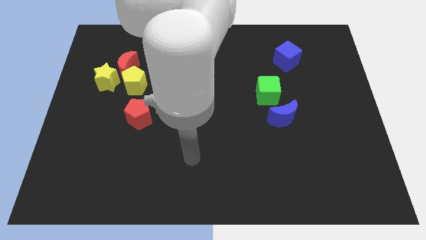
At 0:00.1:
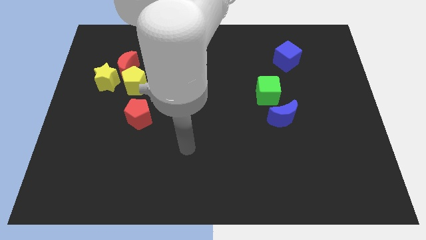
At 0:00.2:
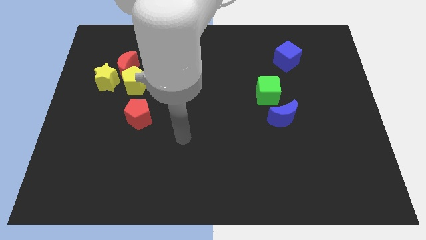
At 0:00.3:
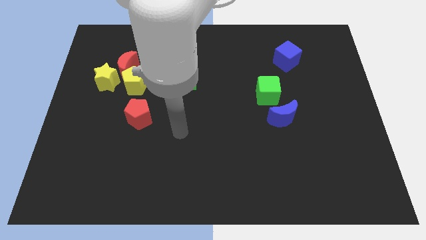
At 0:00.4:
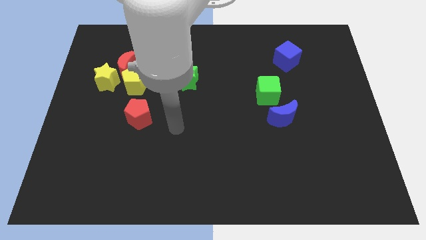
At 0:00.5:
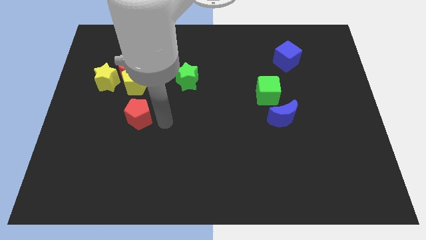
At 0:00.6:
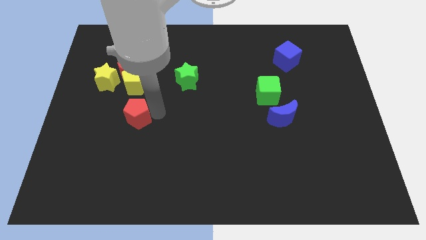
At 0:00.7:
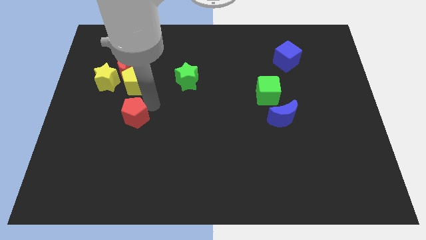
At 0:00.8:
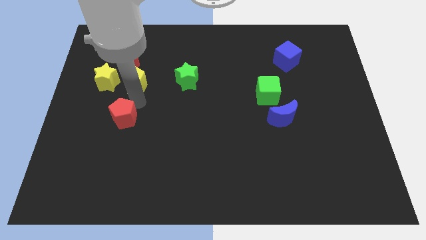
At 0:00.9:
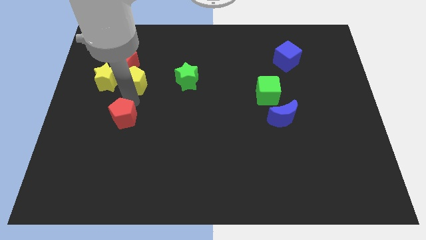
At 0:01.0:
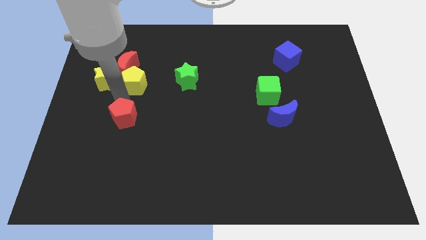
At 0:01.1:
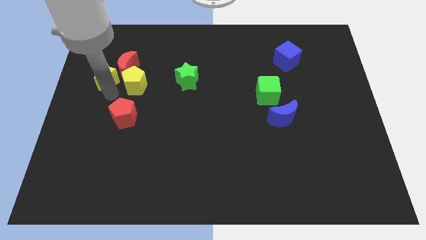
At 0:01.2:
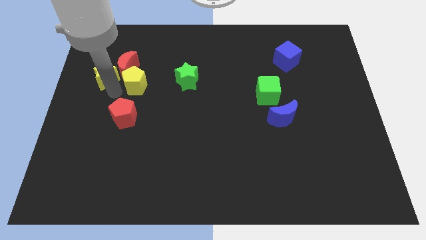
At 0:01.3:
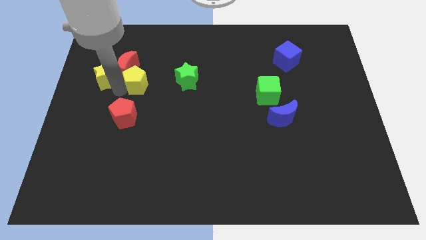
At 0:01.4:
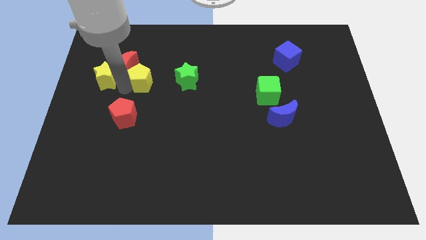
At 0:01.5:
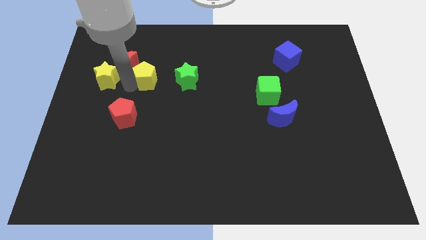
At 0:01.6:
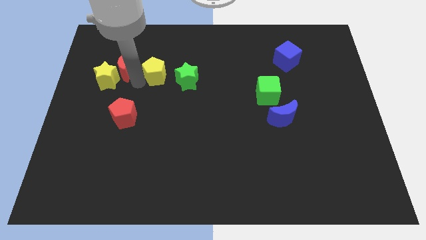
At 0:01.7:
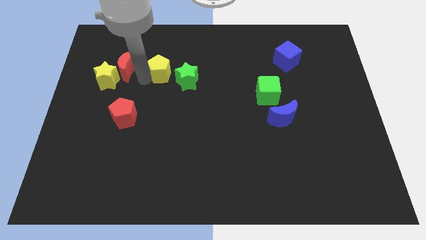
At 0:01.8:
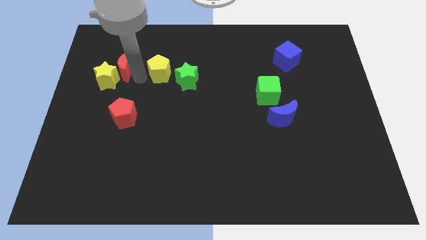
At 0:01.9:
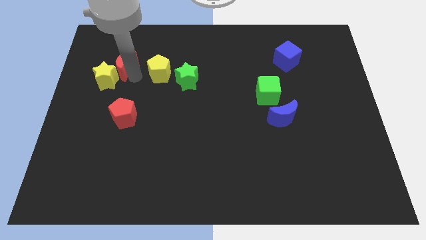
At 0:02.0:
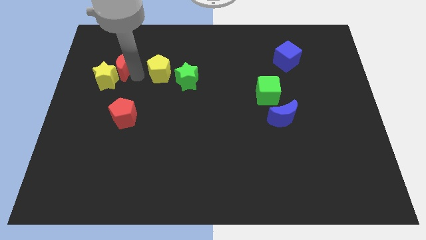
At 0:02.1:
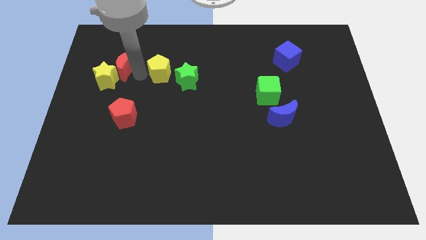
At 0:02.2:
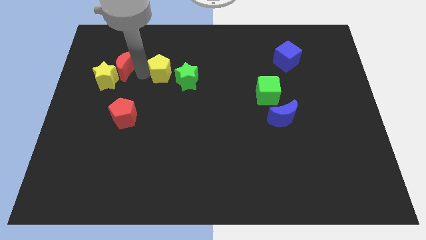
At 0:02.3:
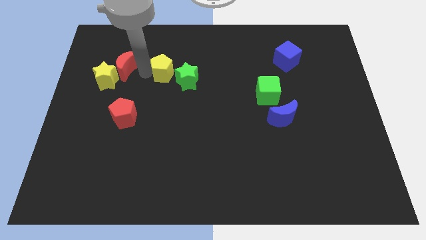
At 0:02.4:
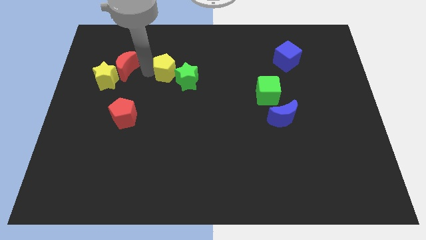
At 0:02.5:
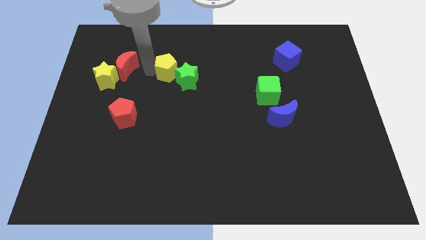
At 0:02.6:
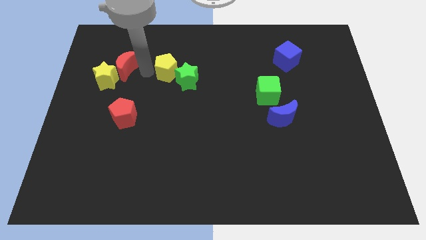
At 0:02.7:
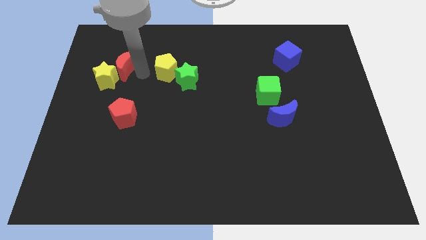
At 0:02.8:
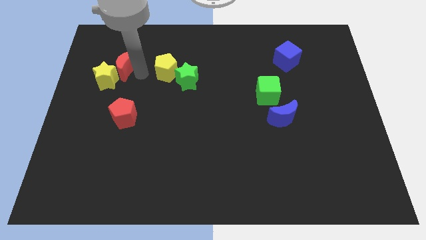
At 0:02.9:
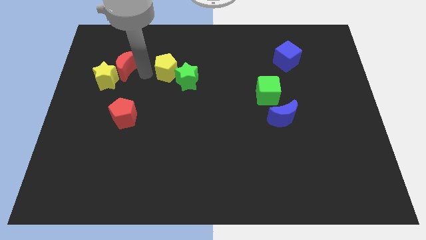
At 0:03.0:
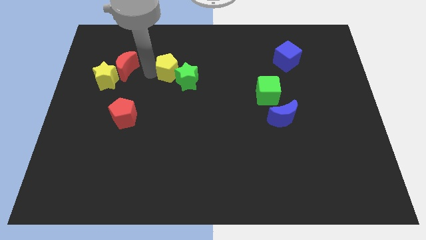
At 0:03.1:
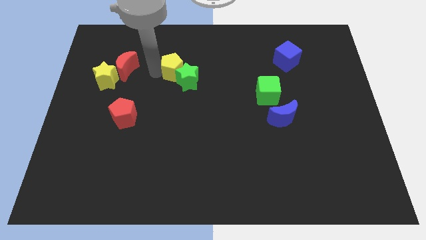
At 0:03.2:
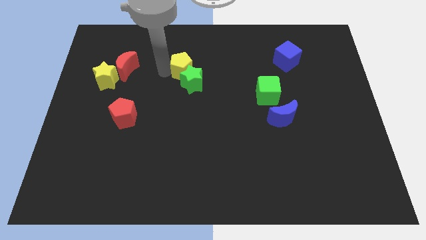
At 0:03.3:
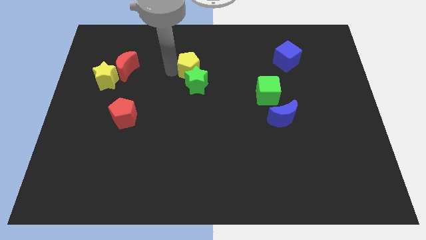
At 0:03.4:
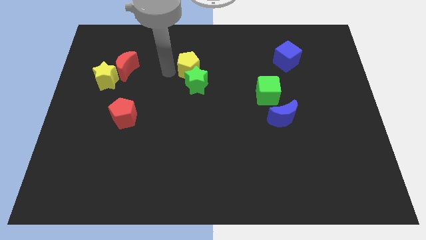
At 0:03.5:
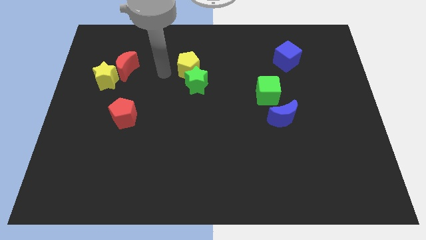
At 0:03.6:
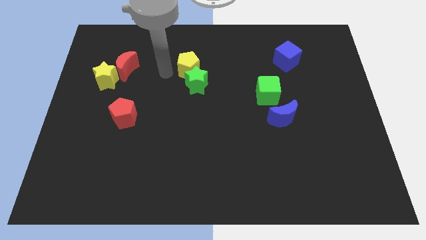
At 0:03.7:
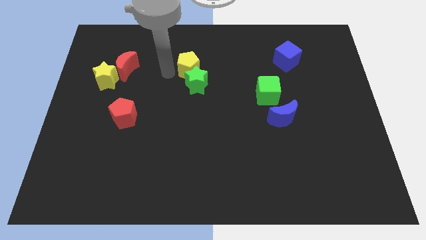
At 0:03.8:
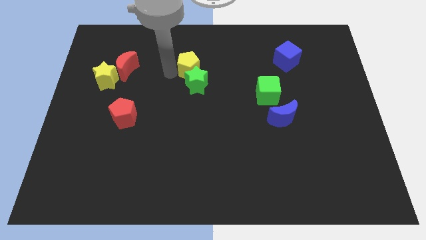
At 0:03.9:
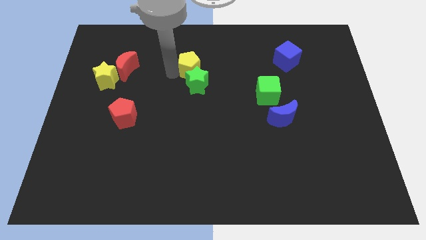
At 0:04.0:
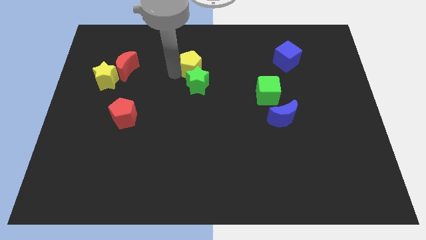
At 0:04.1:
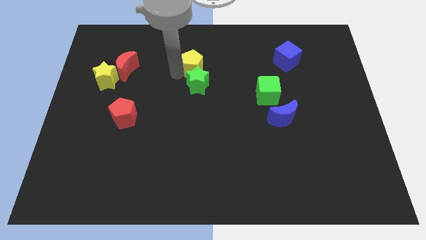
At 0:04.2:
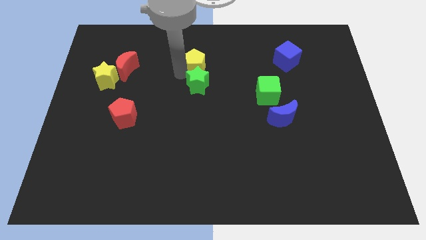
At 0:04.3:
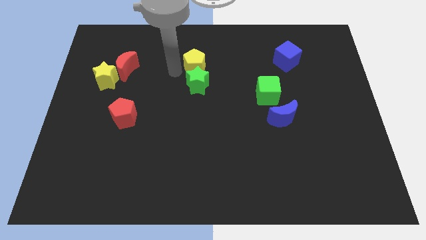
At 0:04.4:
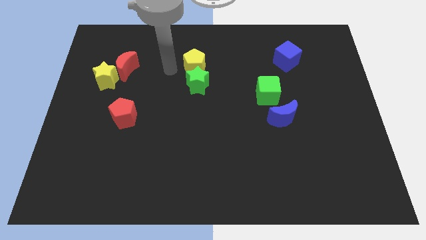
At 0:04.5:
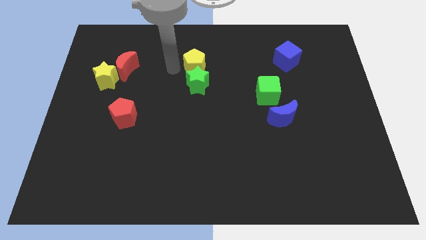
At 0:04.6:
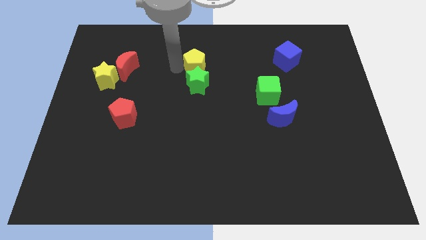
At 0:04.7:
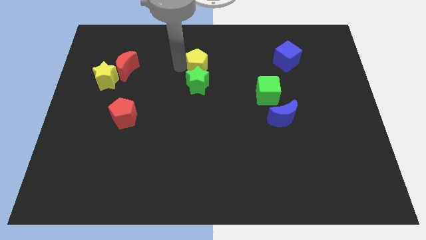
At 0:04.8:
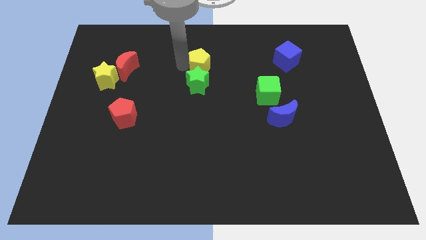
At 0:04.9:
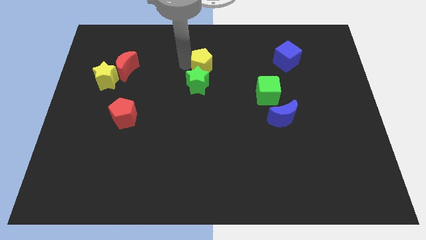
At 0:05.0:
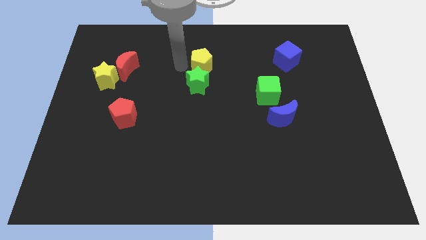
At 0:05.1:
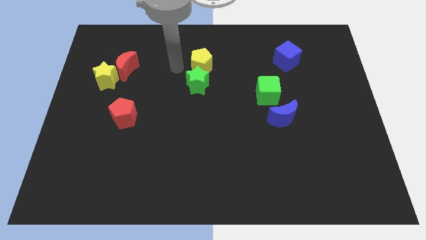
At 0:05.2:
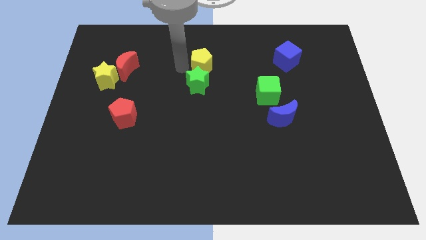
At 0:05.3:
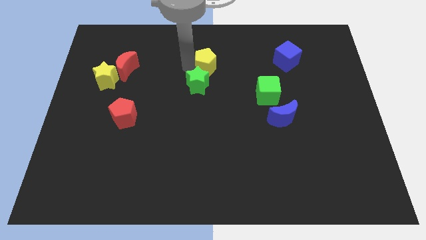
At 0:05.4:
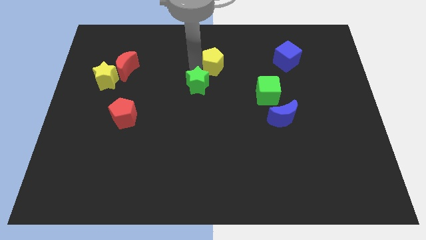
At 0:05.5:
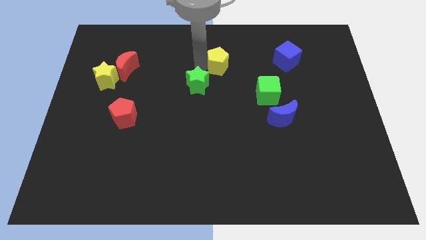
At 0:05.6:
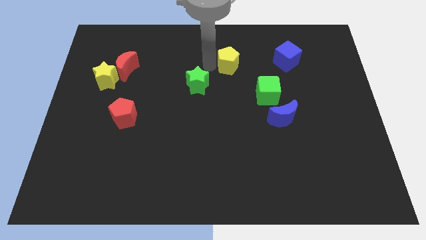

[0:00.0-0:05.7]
slide the yellow pentagon to the left side of the blue cube

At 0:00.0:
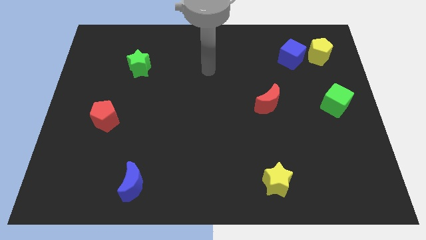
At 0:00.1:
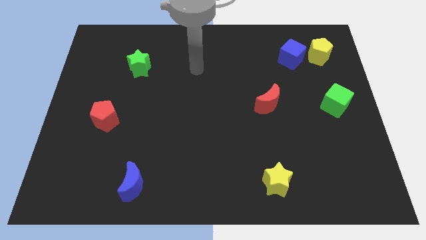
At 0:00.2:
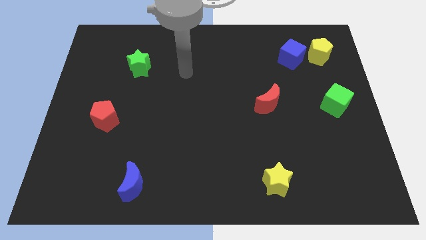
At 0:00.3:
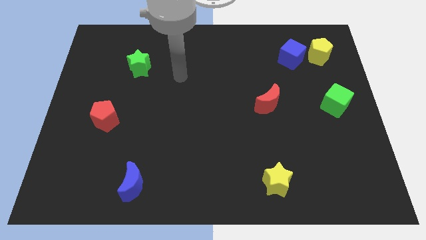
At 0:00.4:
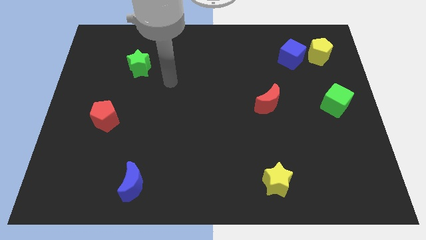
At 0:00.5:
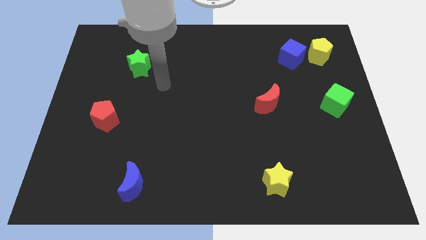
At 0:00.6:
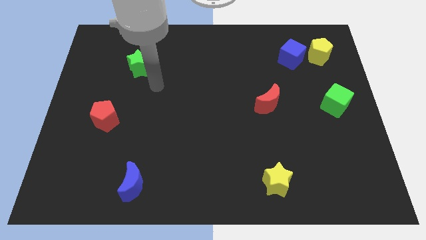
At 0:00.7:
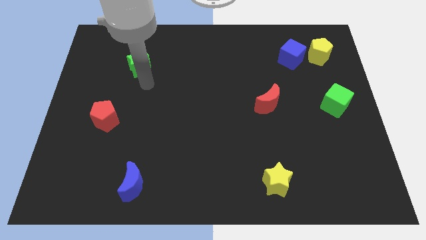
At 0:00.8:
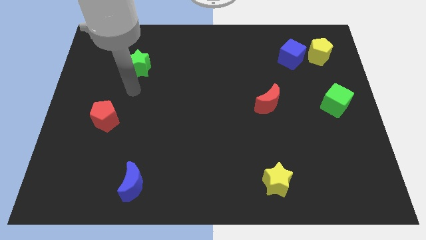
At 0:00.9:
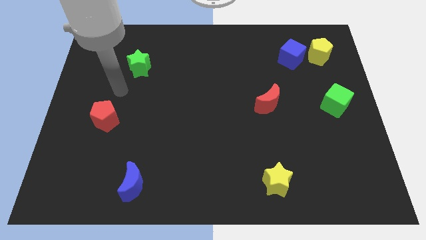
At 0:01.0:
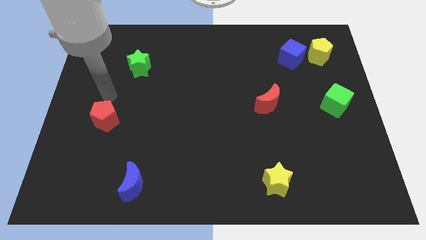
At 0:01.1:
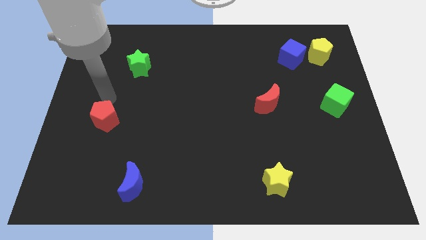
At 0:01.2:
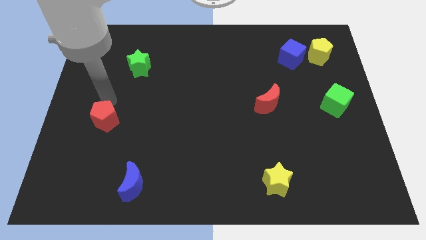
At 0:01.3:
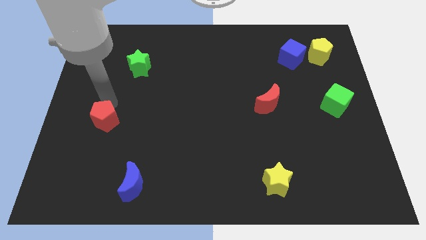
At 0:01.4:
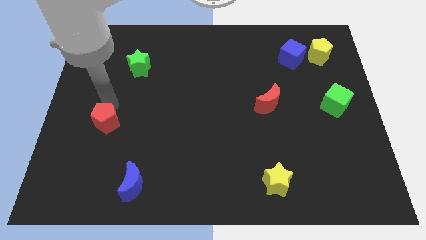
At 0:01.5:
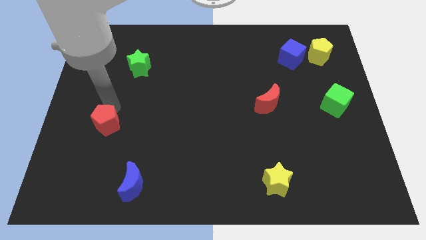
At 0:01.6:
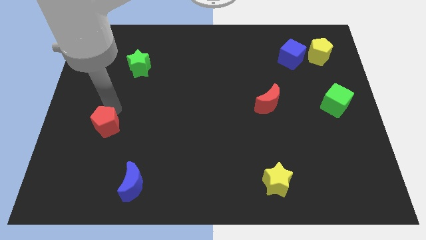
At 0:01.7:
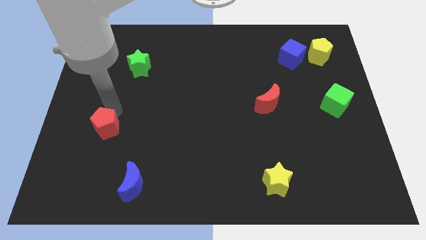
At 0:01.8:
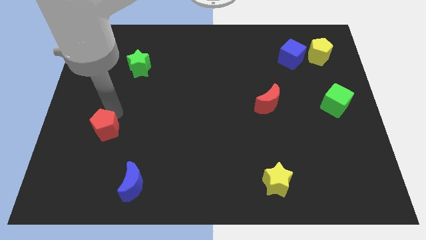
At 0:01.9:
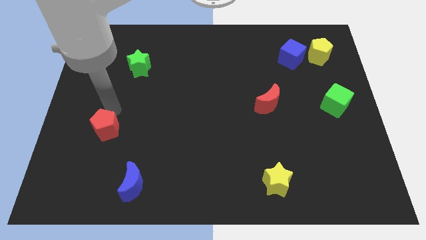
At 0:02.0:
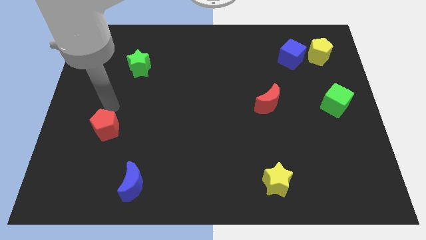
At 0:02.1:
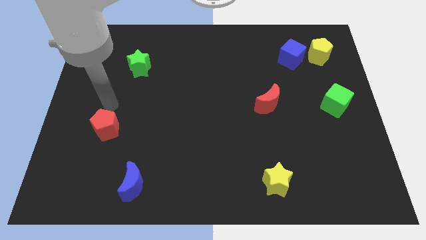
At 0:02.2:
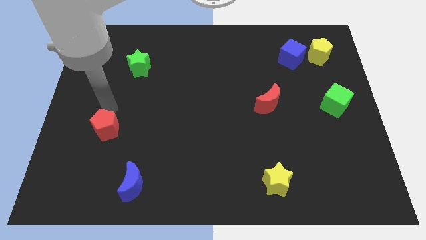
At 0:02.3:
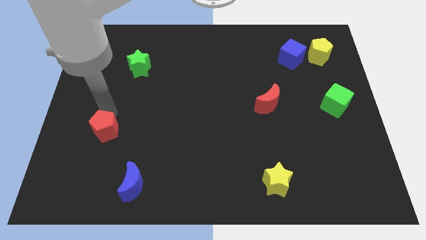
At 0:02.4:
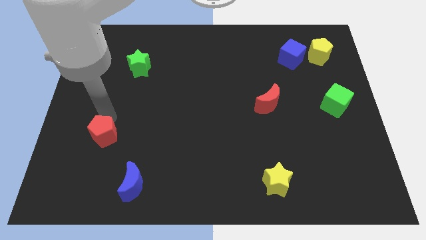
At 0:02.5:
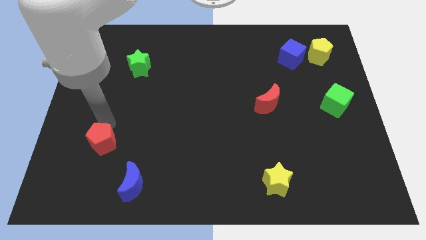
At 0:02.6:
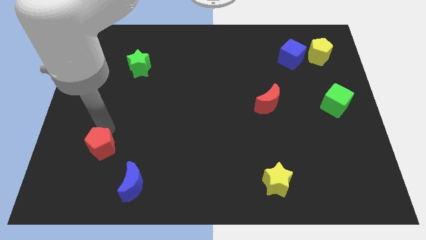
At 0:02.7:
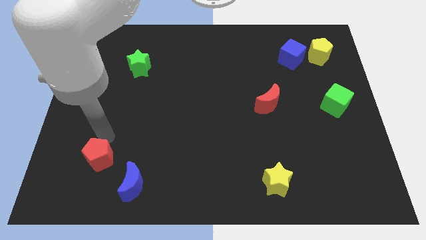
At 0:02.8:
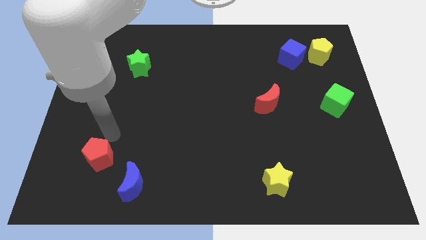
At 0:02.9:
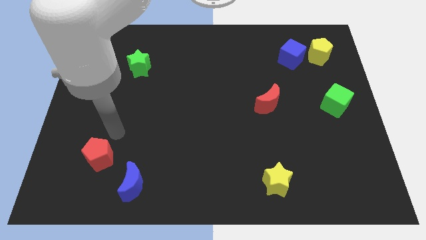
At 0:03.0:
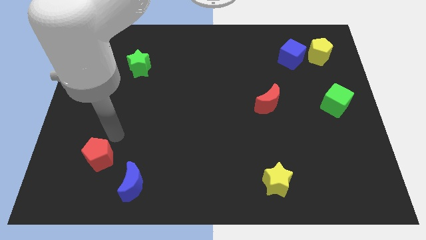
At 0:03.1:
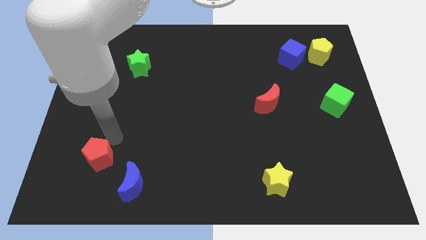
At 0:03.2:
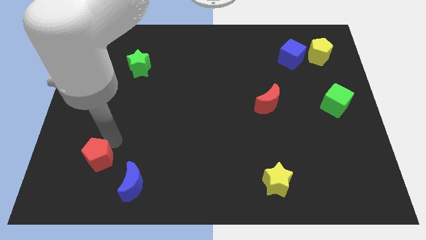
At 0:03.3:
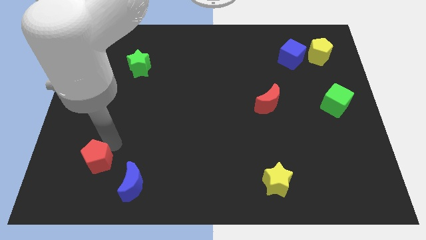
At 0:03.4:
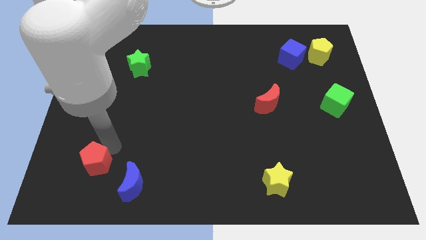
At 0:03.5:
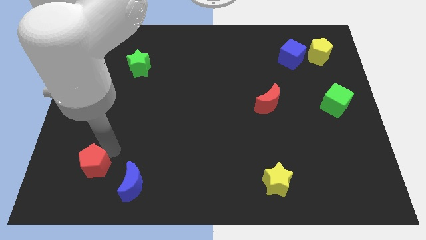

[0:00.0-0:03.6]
push the red pentagon just left of the blue moon
